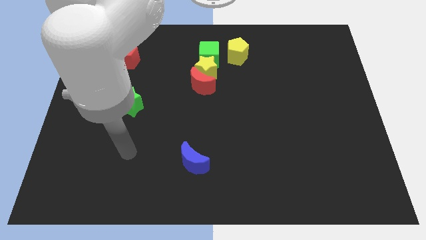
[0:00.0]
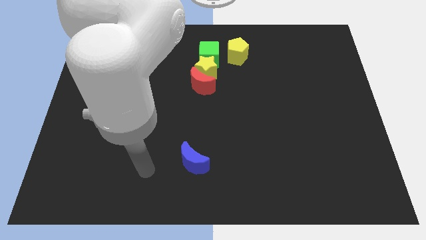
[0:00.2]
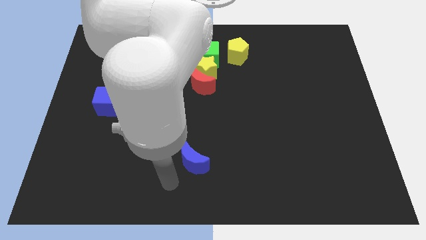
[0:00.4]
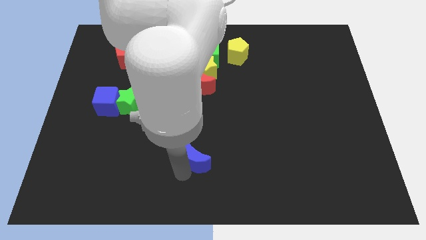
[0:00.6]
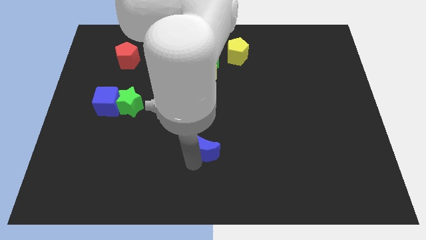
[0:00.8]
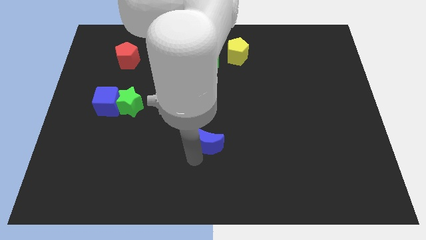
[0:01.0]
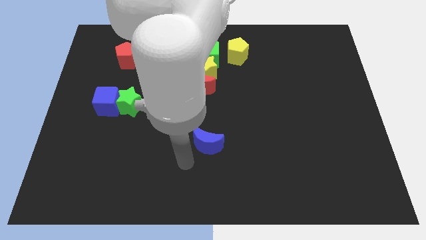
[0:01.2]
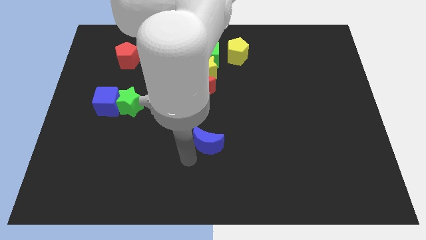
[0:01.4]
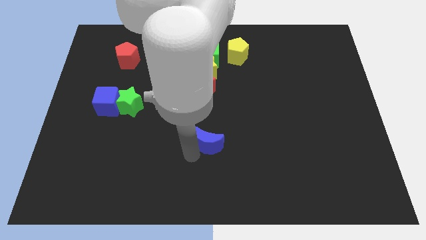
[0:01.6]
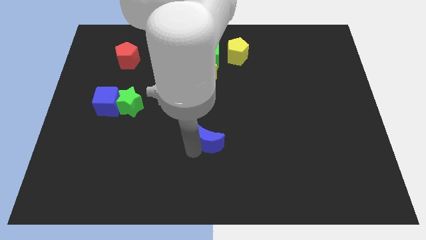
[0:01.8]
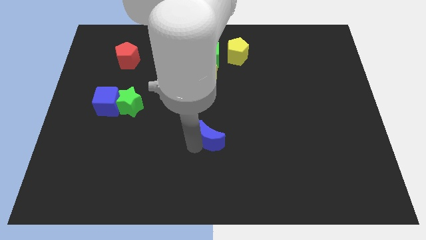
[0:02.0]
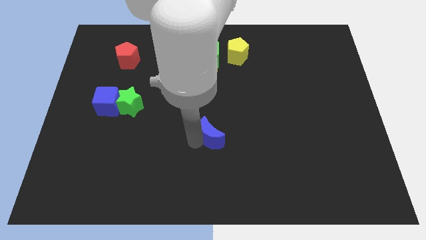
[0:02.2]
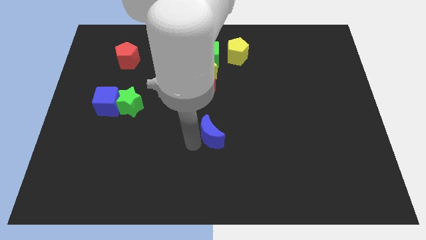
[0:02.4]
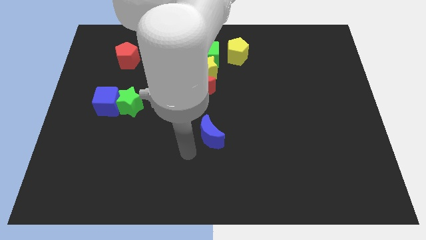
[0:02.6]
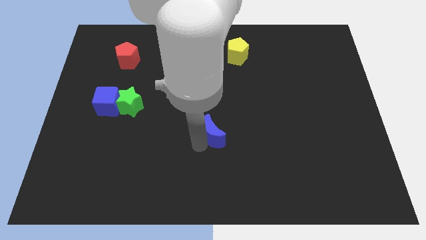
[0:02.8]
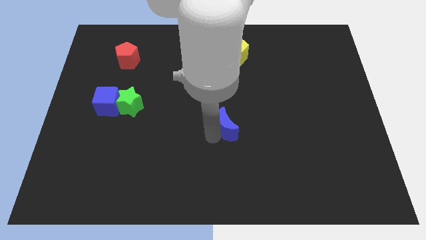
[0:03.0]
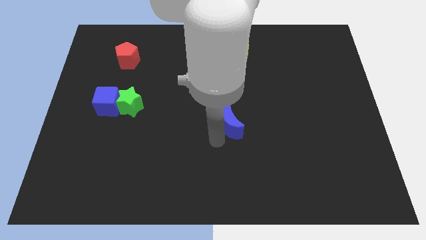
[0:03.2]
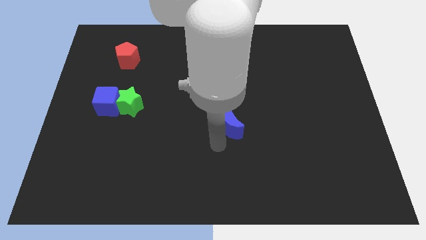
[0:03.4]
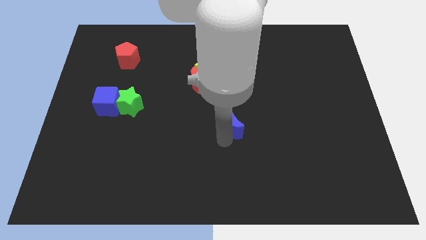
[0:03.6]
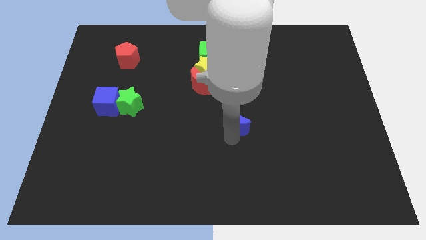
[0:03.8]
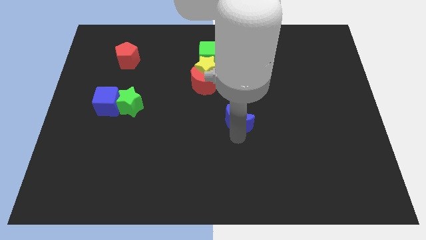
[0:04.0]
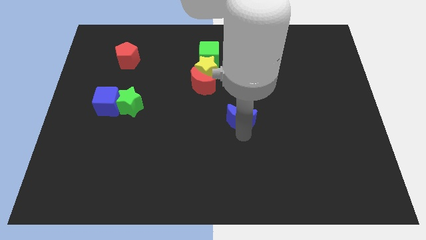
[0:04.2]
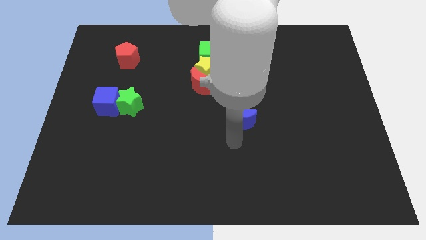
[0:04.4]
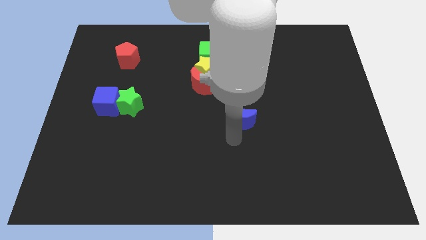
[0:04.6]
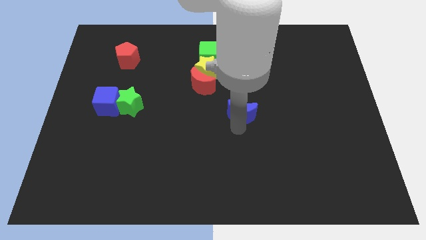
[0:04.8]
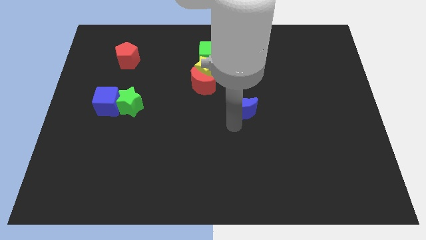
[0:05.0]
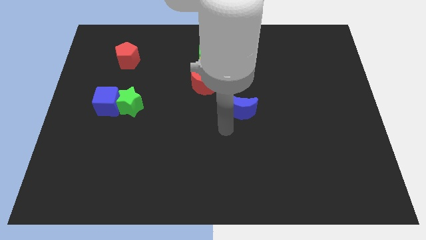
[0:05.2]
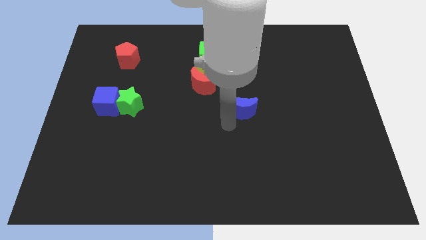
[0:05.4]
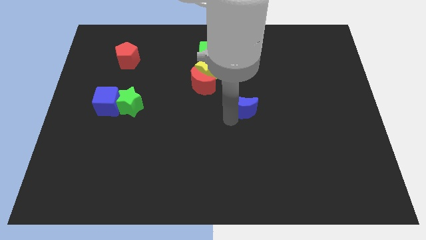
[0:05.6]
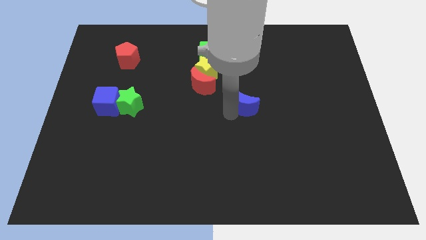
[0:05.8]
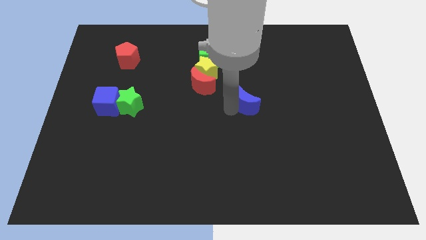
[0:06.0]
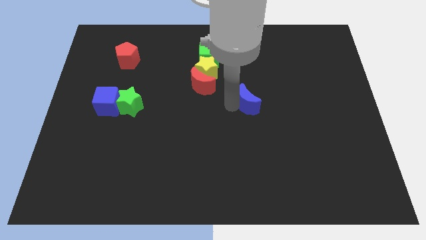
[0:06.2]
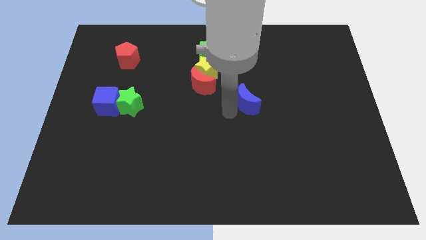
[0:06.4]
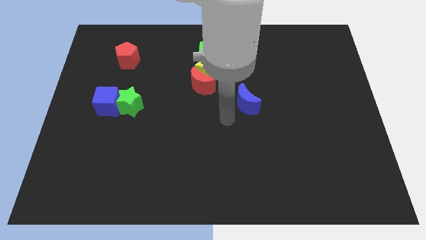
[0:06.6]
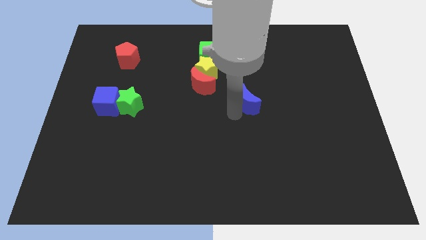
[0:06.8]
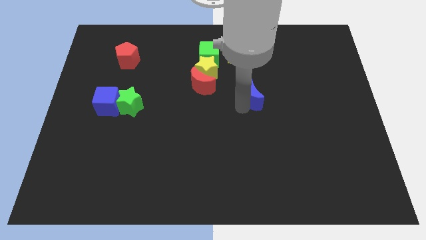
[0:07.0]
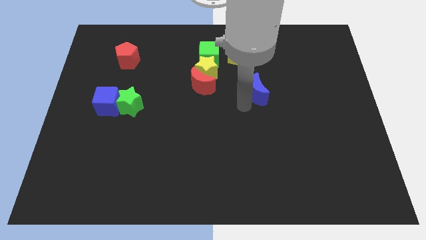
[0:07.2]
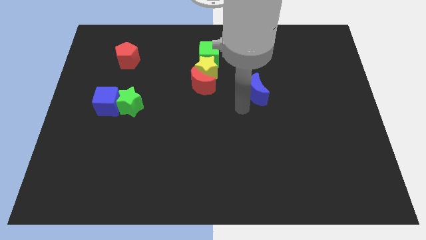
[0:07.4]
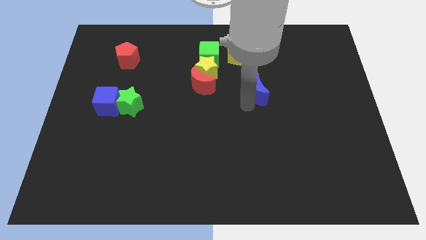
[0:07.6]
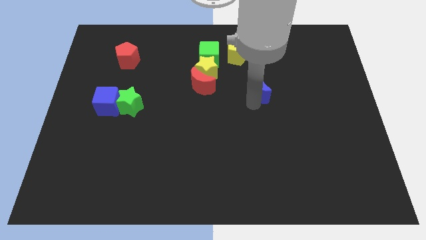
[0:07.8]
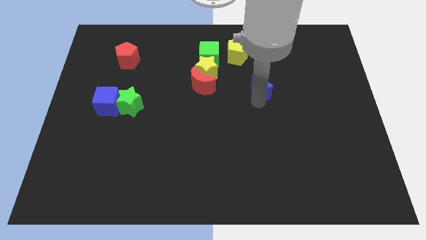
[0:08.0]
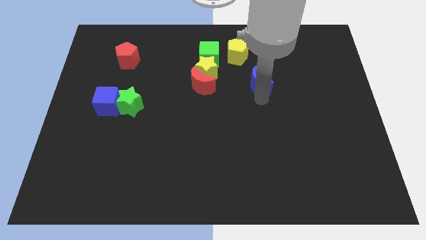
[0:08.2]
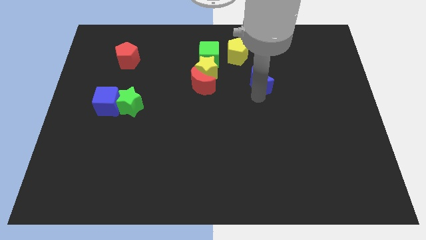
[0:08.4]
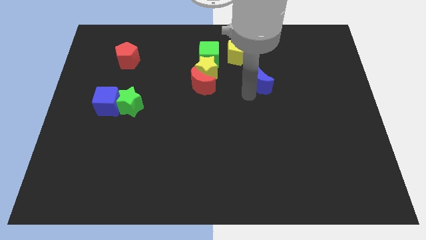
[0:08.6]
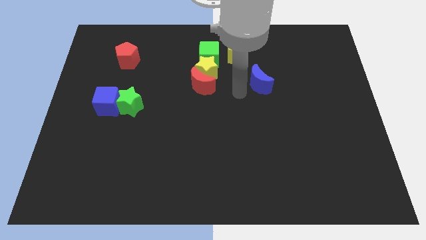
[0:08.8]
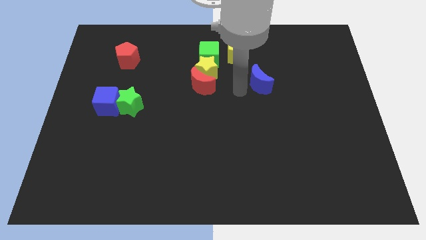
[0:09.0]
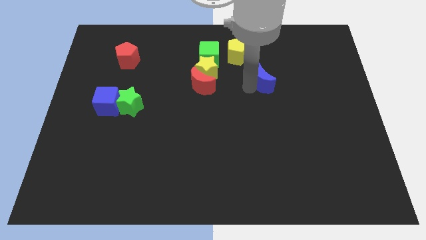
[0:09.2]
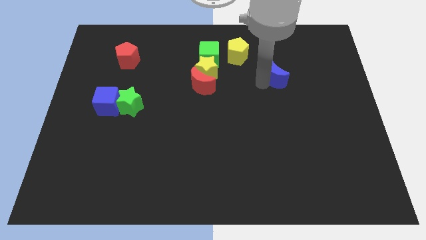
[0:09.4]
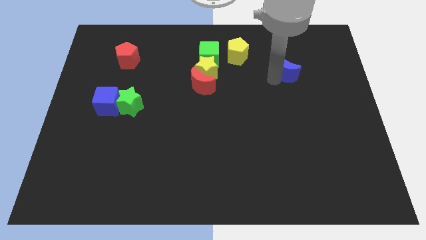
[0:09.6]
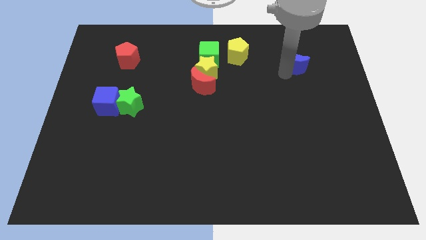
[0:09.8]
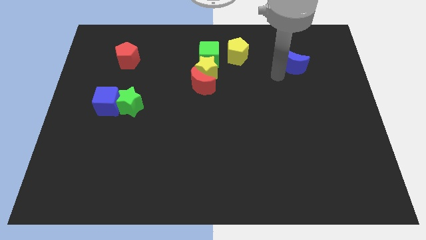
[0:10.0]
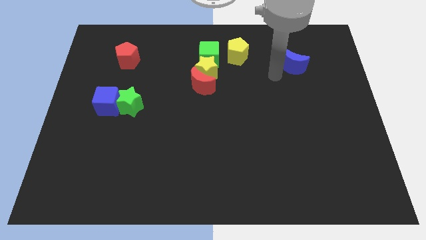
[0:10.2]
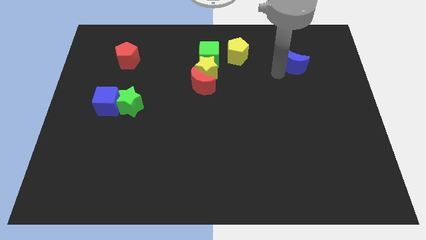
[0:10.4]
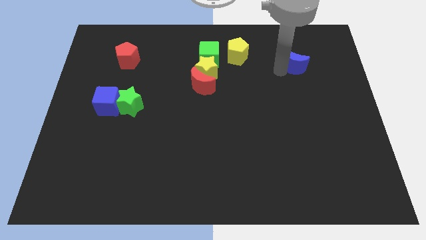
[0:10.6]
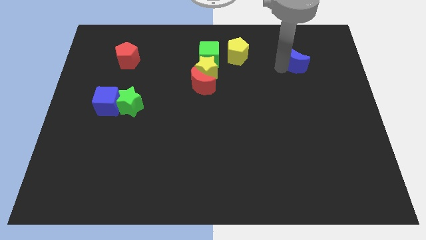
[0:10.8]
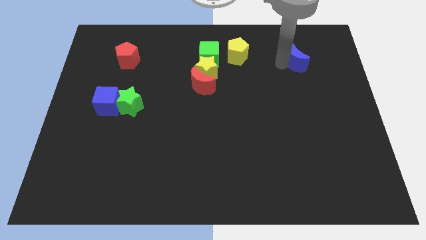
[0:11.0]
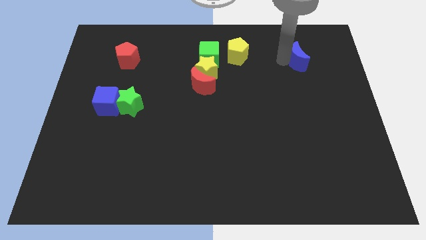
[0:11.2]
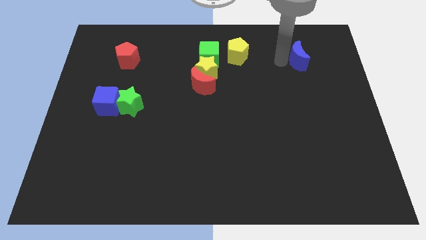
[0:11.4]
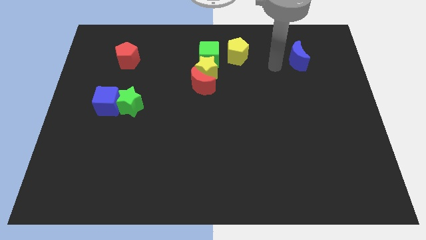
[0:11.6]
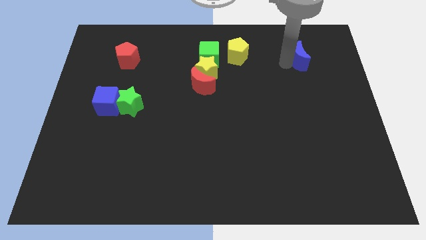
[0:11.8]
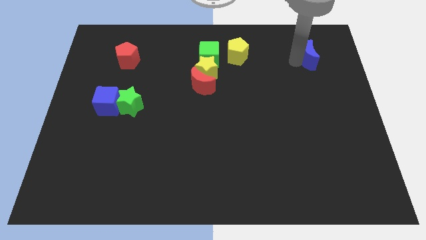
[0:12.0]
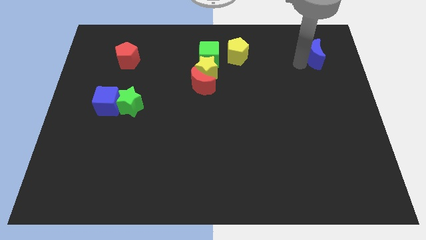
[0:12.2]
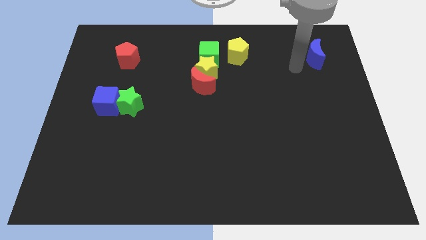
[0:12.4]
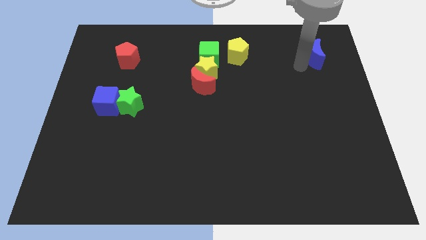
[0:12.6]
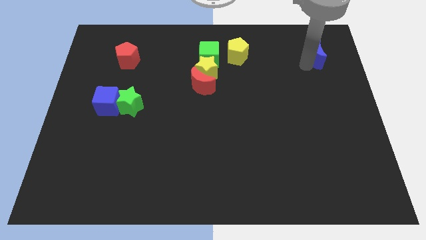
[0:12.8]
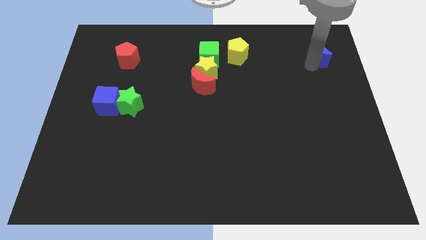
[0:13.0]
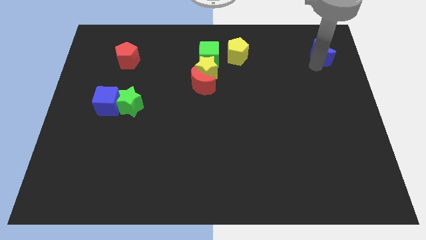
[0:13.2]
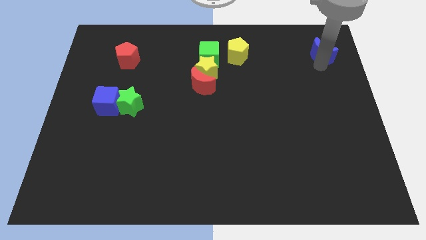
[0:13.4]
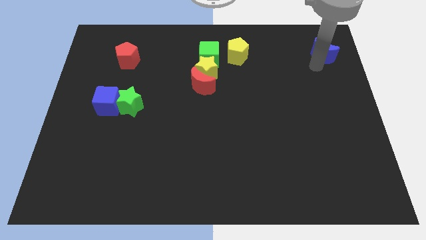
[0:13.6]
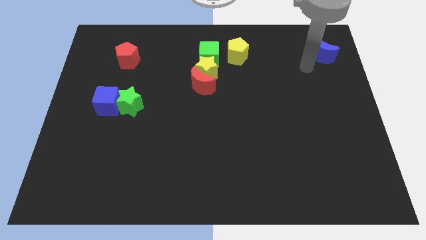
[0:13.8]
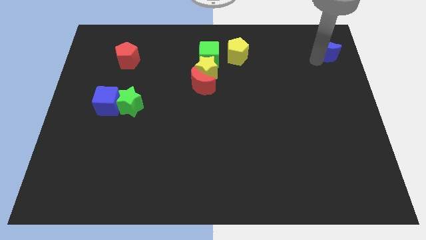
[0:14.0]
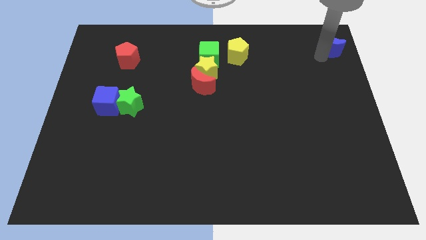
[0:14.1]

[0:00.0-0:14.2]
move the blue moon to the top right

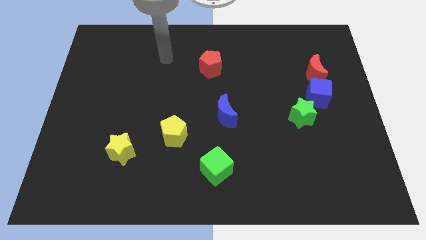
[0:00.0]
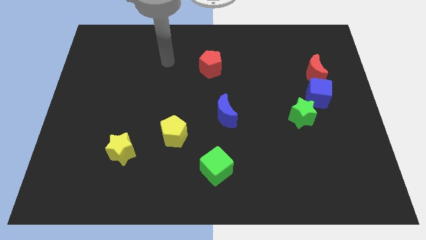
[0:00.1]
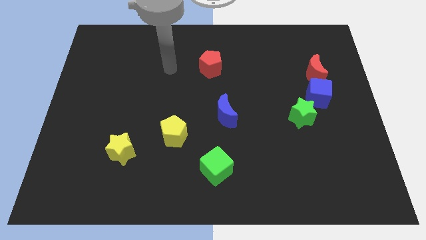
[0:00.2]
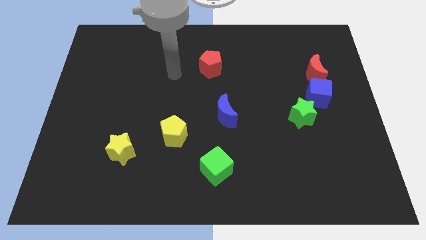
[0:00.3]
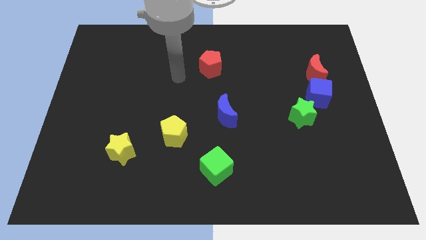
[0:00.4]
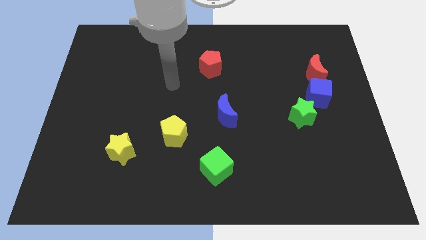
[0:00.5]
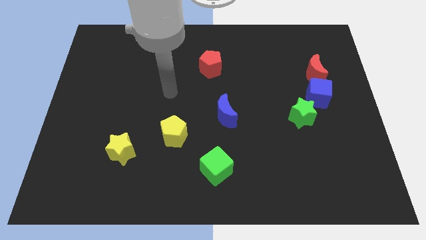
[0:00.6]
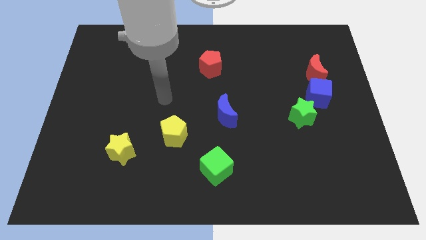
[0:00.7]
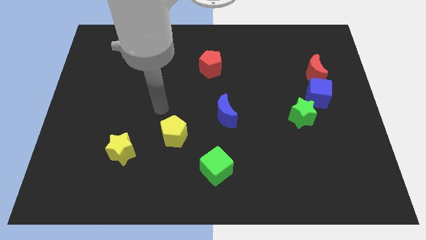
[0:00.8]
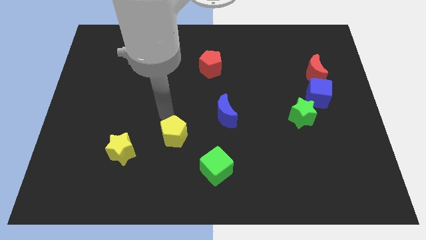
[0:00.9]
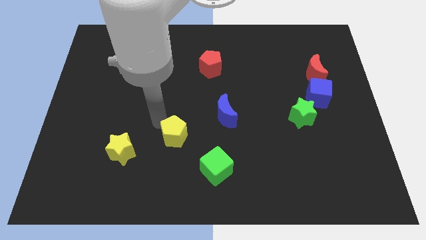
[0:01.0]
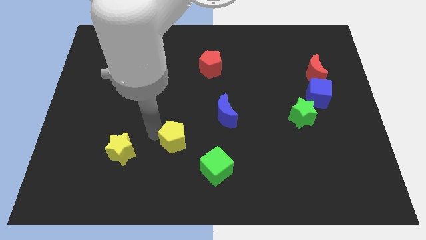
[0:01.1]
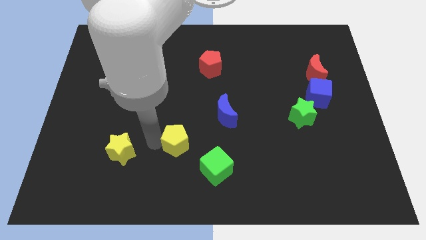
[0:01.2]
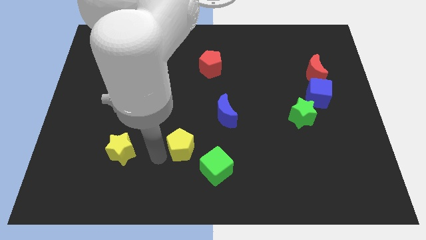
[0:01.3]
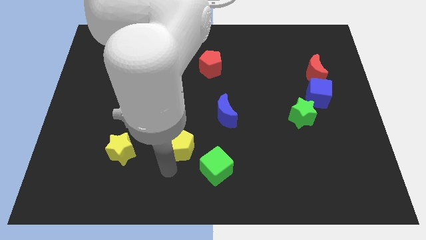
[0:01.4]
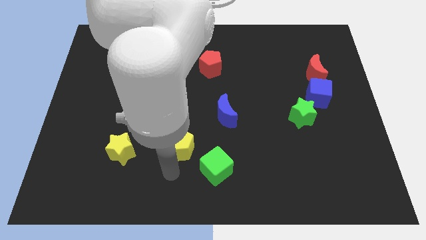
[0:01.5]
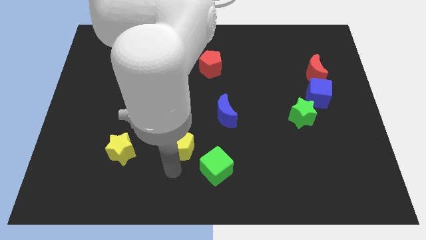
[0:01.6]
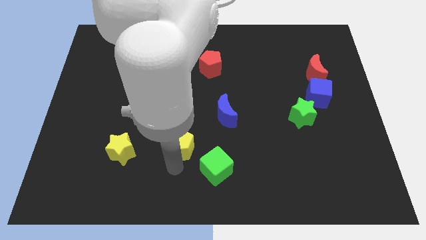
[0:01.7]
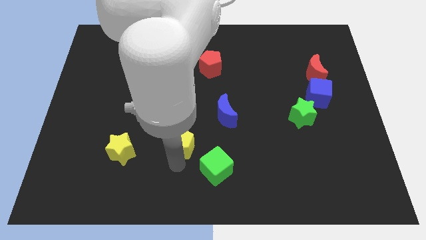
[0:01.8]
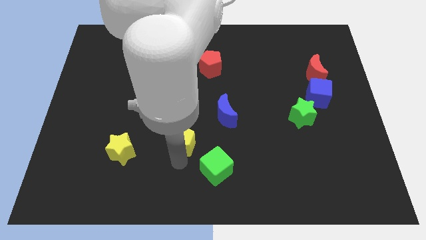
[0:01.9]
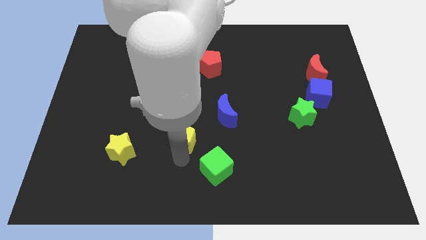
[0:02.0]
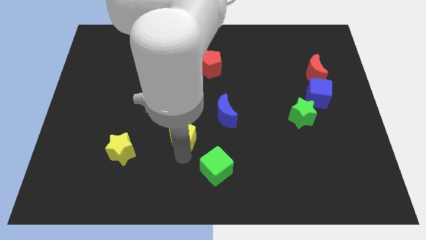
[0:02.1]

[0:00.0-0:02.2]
move the yellow pentagon to the middle
